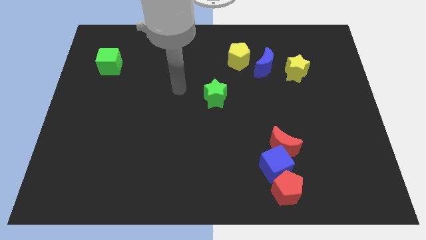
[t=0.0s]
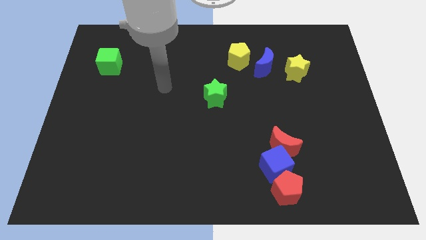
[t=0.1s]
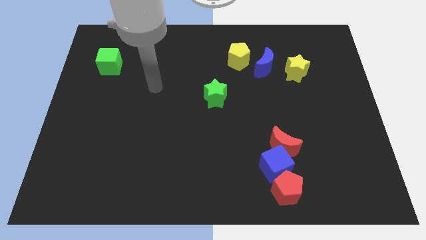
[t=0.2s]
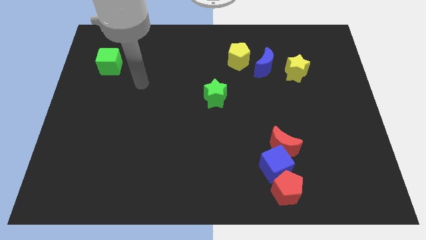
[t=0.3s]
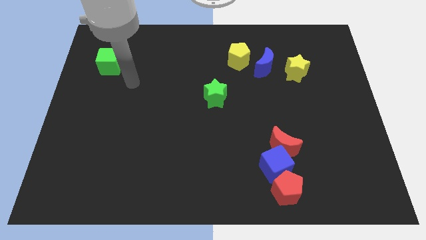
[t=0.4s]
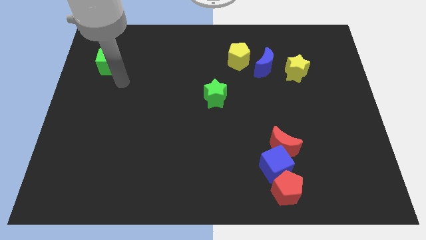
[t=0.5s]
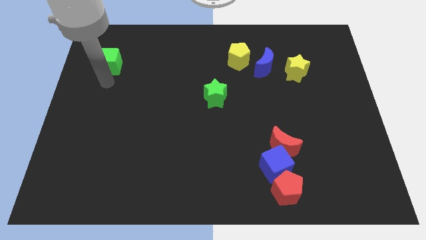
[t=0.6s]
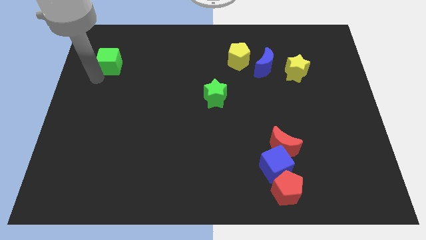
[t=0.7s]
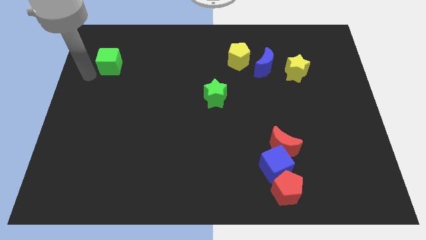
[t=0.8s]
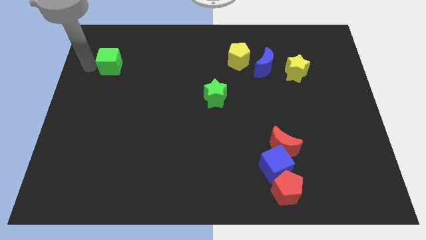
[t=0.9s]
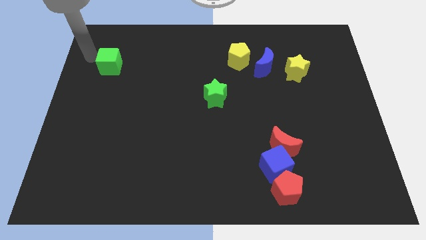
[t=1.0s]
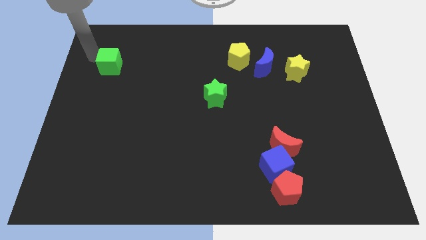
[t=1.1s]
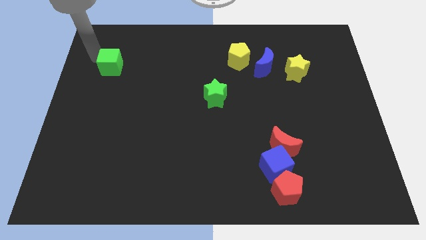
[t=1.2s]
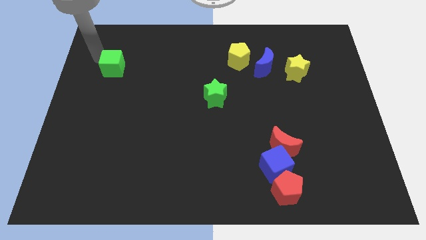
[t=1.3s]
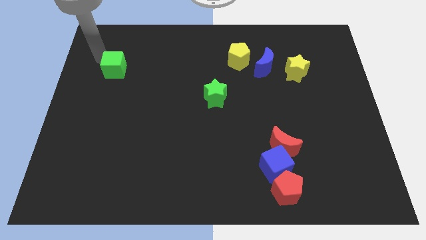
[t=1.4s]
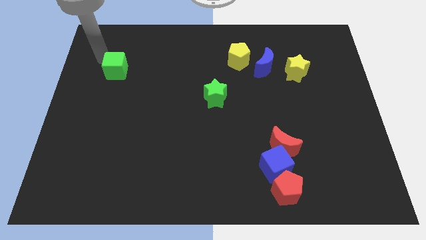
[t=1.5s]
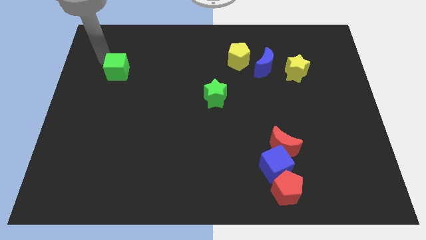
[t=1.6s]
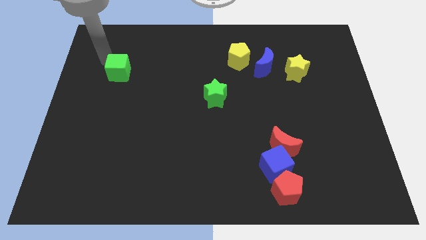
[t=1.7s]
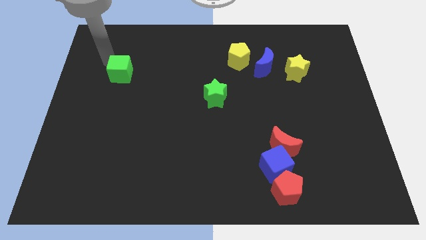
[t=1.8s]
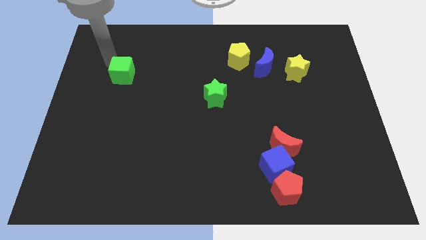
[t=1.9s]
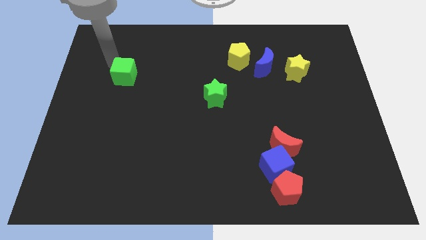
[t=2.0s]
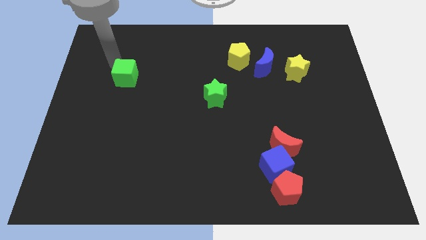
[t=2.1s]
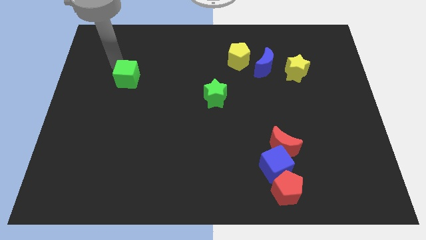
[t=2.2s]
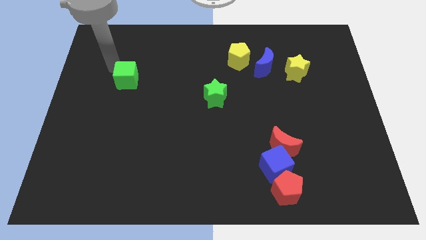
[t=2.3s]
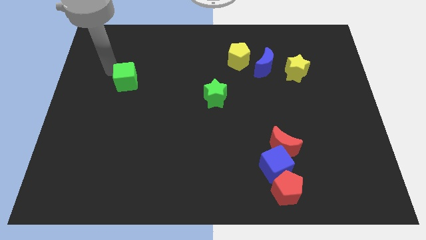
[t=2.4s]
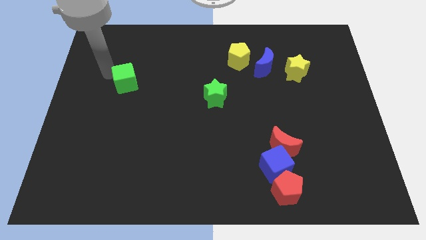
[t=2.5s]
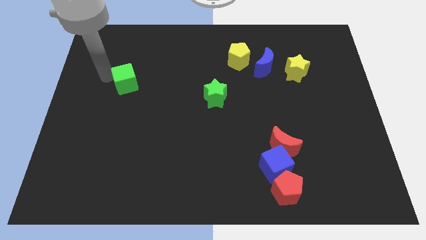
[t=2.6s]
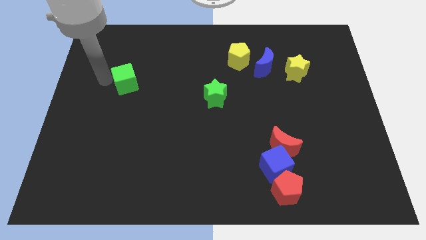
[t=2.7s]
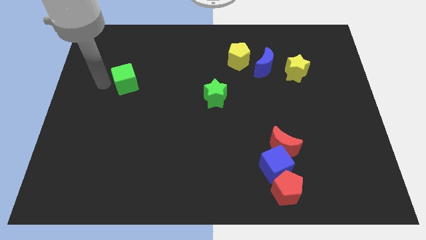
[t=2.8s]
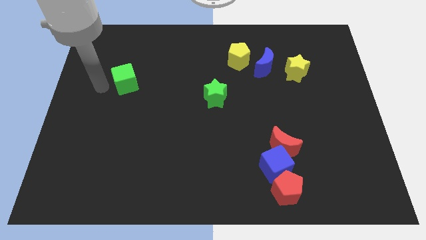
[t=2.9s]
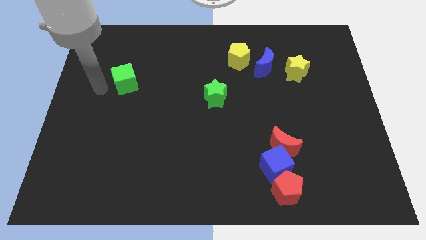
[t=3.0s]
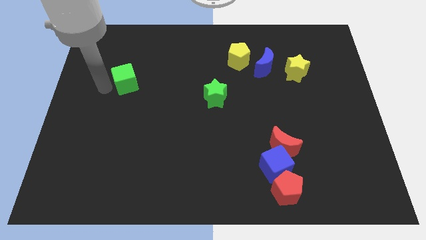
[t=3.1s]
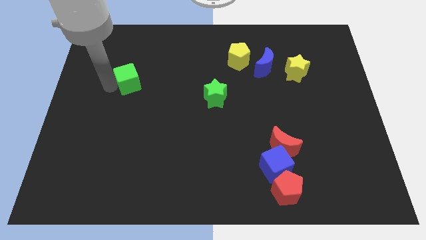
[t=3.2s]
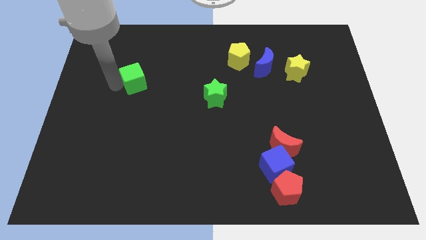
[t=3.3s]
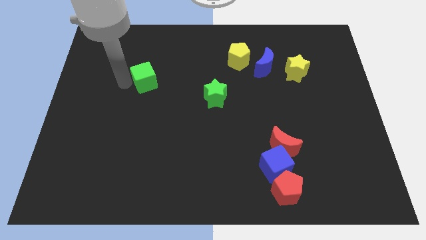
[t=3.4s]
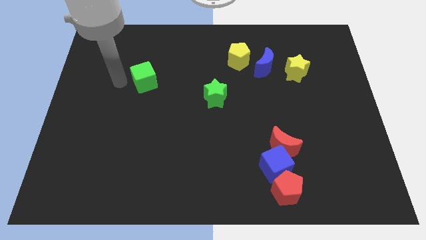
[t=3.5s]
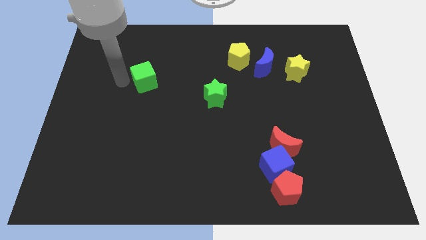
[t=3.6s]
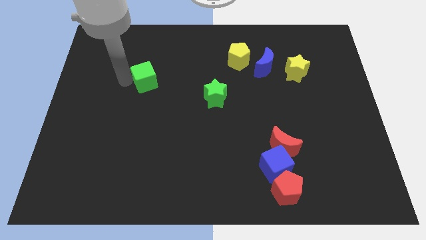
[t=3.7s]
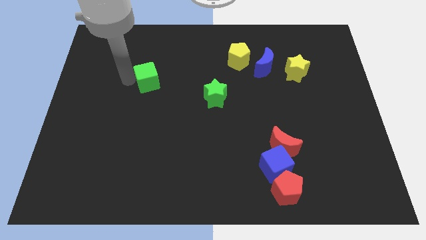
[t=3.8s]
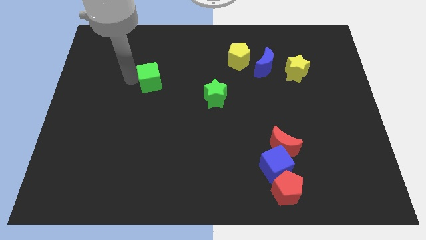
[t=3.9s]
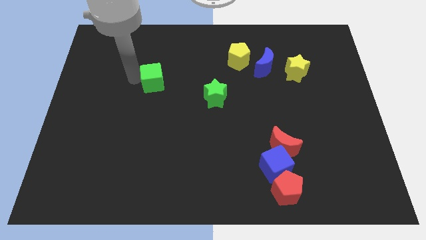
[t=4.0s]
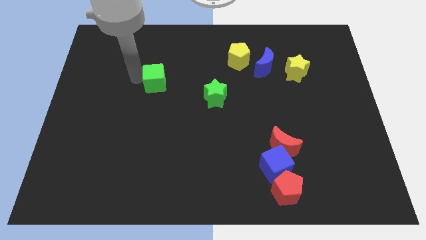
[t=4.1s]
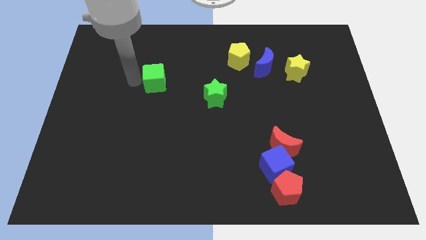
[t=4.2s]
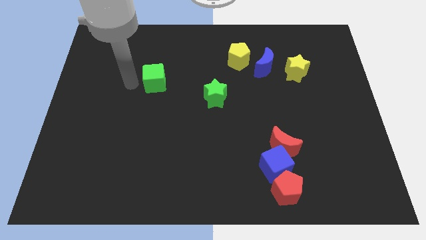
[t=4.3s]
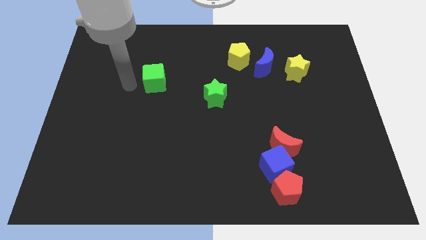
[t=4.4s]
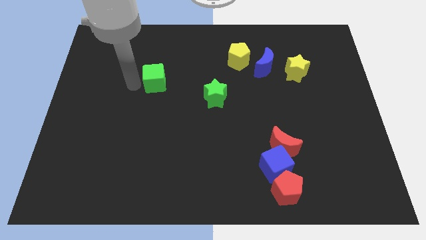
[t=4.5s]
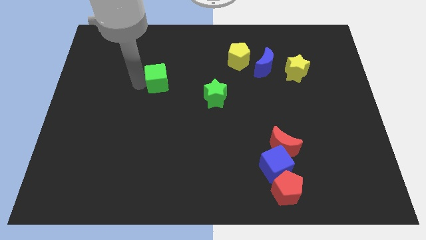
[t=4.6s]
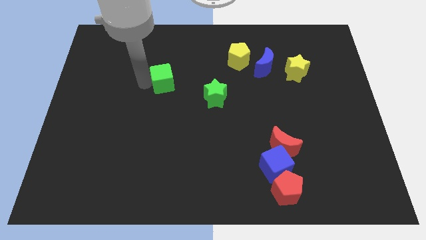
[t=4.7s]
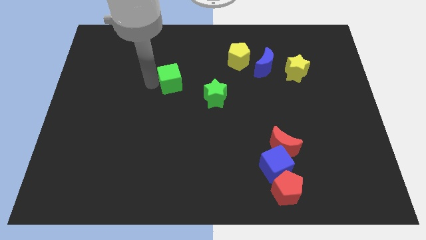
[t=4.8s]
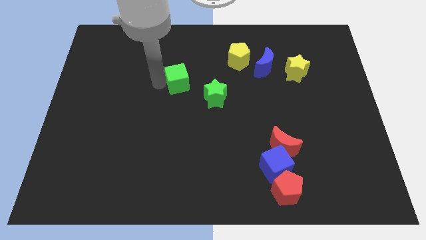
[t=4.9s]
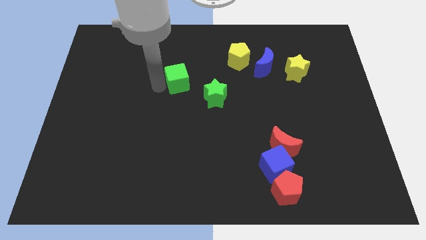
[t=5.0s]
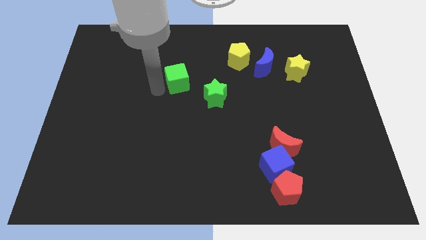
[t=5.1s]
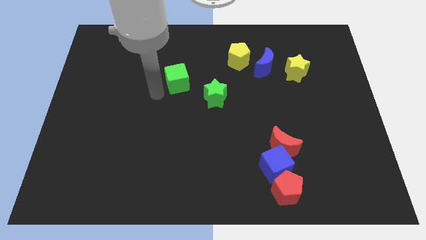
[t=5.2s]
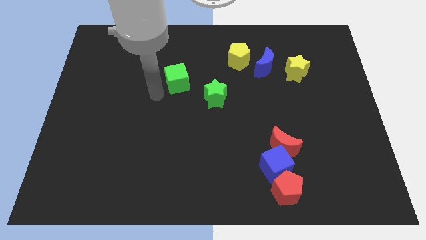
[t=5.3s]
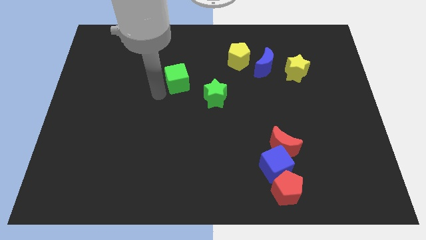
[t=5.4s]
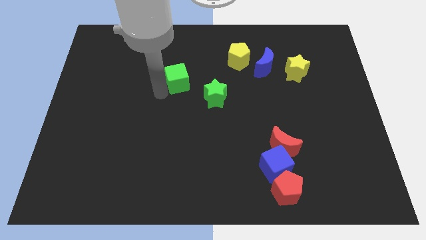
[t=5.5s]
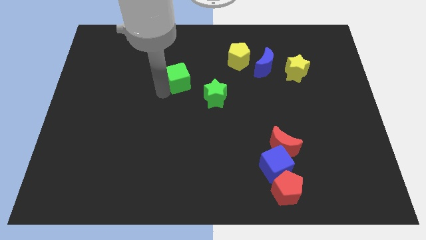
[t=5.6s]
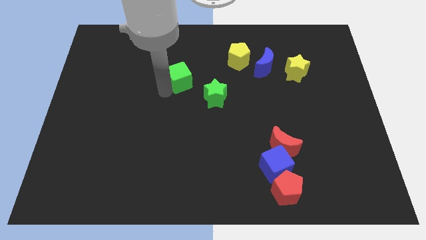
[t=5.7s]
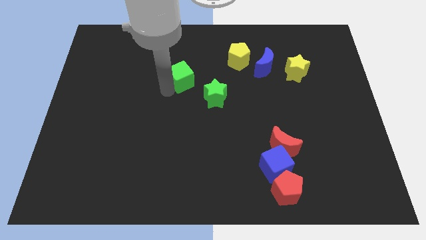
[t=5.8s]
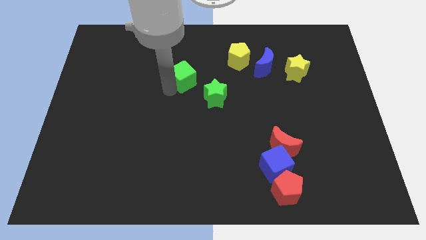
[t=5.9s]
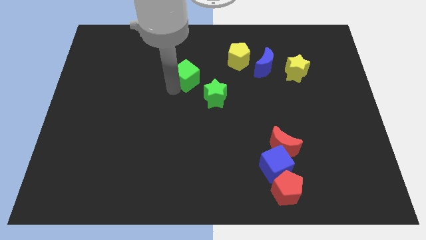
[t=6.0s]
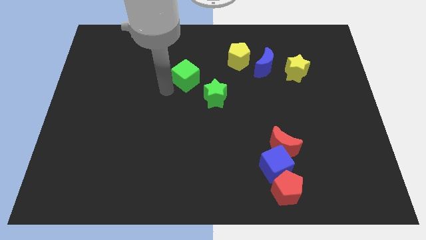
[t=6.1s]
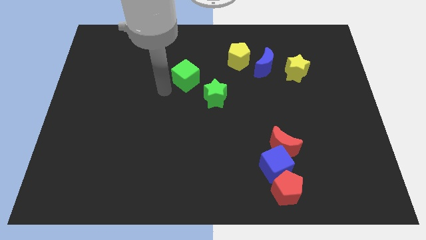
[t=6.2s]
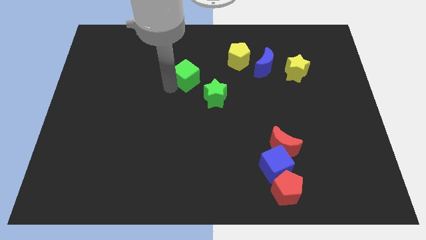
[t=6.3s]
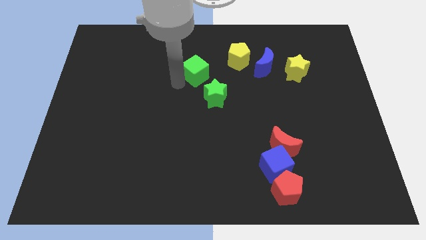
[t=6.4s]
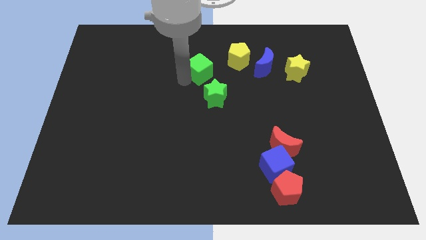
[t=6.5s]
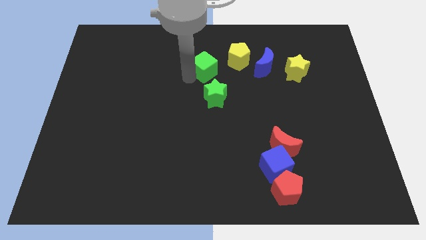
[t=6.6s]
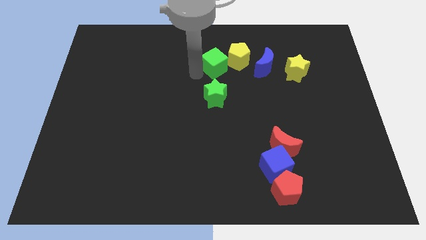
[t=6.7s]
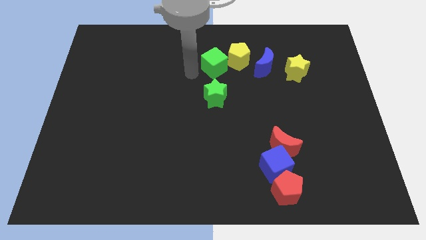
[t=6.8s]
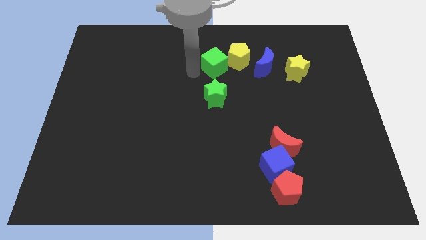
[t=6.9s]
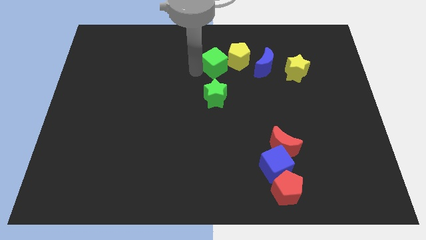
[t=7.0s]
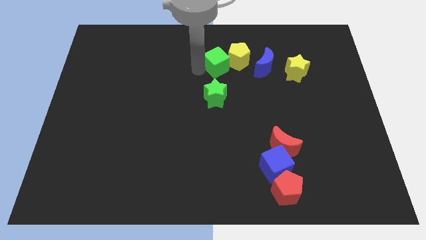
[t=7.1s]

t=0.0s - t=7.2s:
move the green cube next to the yellow pentagon
